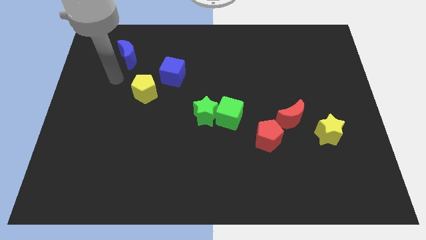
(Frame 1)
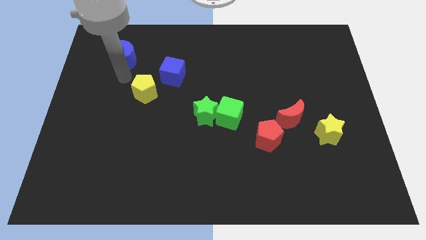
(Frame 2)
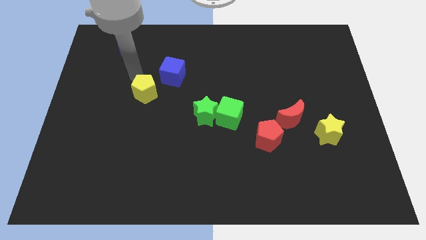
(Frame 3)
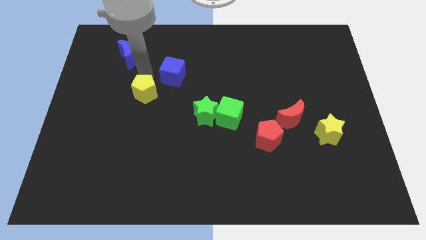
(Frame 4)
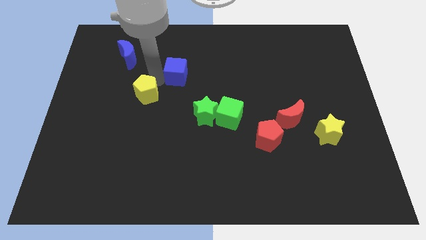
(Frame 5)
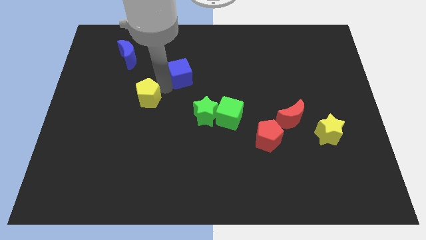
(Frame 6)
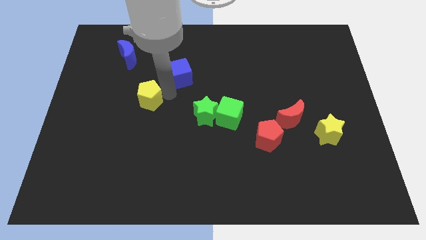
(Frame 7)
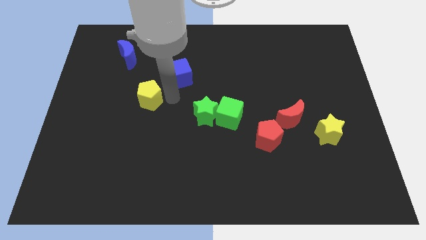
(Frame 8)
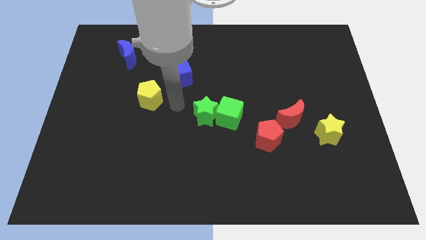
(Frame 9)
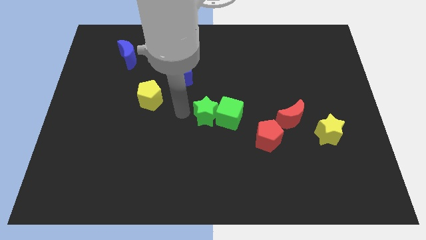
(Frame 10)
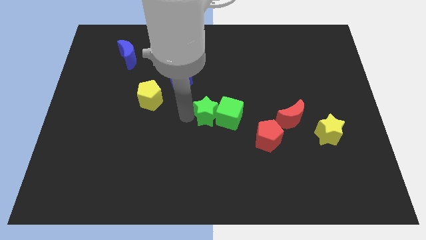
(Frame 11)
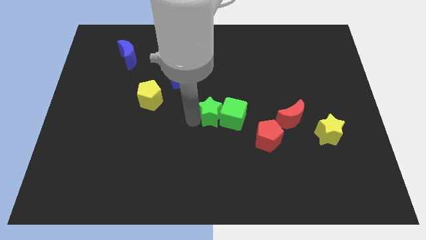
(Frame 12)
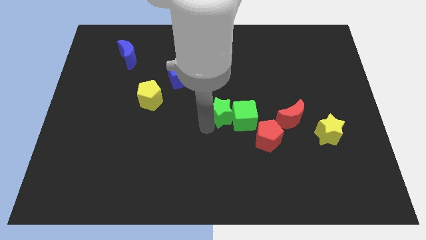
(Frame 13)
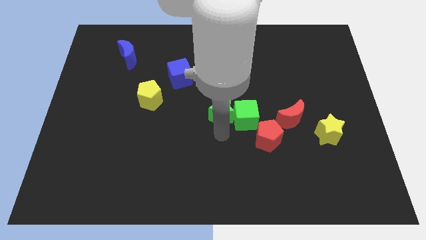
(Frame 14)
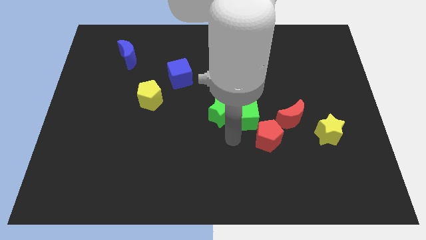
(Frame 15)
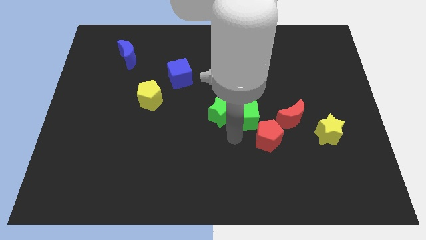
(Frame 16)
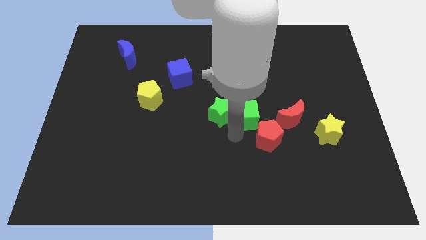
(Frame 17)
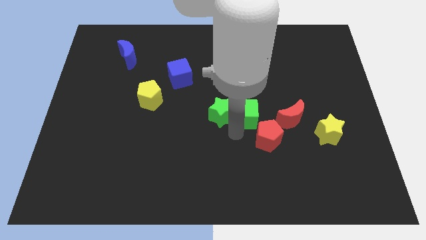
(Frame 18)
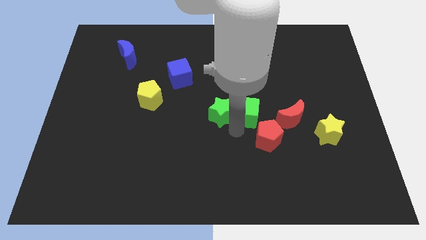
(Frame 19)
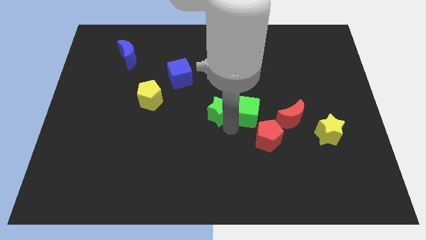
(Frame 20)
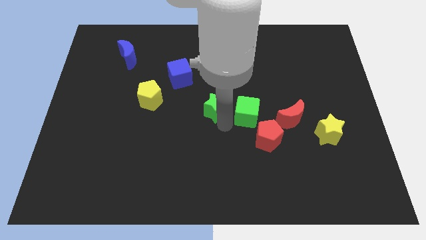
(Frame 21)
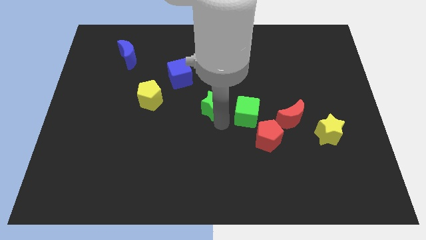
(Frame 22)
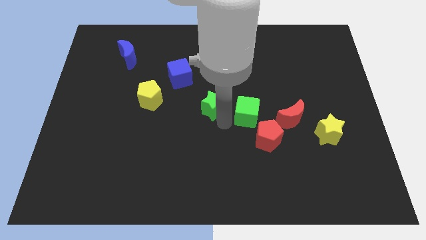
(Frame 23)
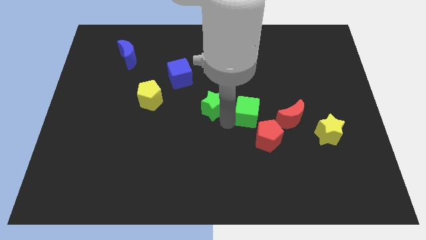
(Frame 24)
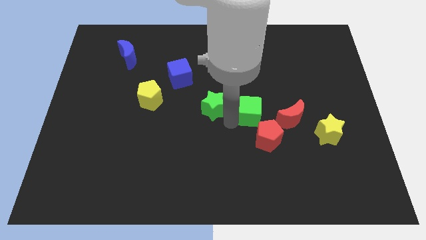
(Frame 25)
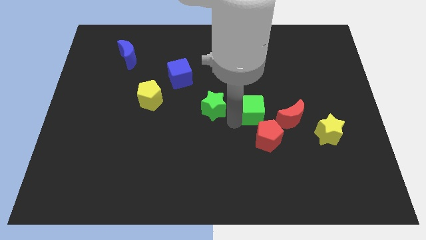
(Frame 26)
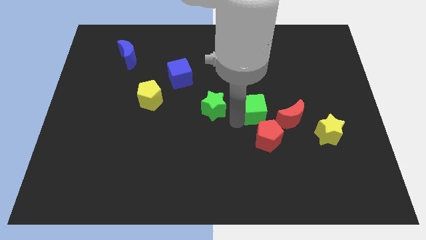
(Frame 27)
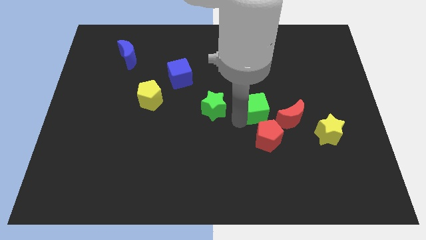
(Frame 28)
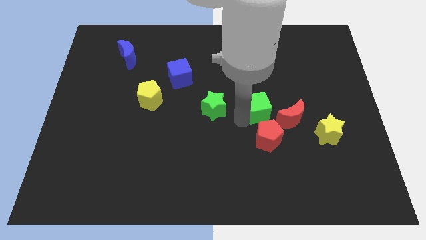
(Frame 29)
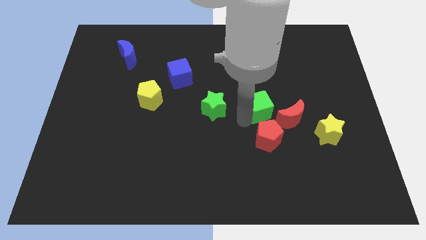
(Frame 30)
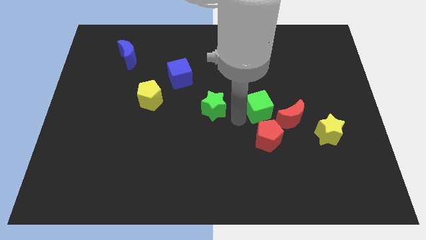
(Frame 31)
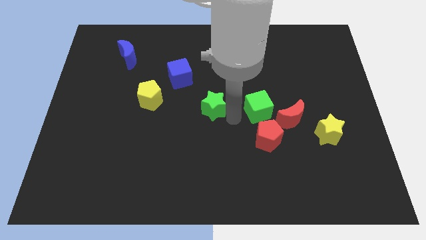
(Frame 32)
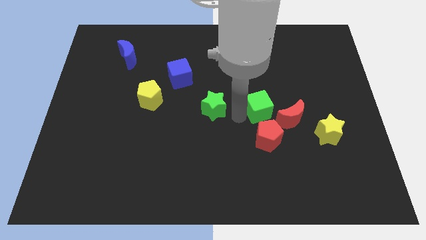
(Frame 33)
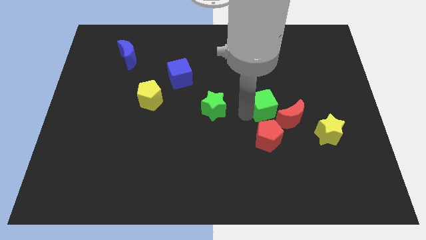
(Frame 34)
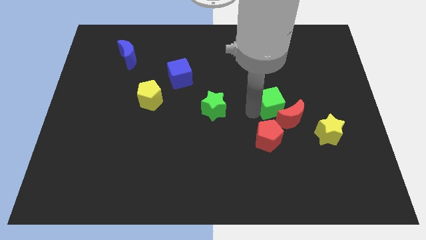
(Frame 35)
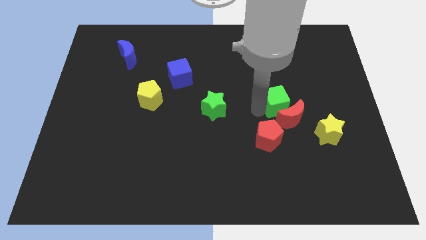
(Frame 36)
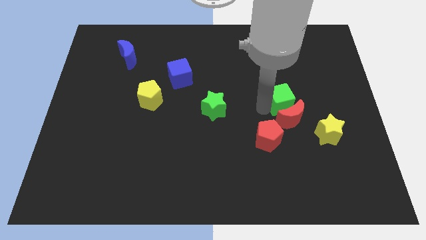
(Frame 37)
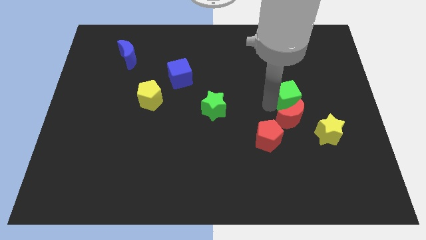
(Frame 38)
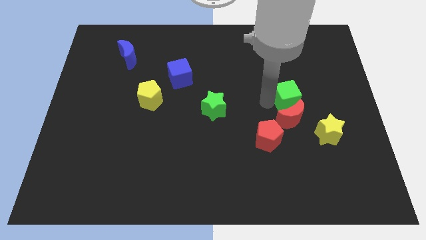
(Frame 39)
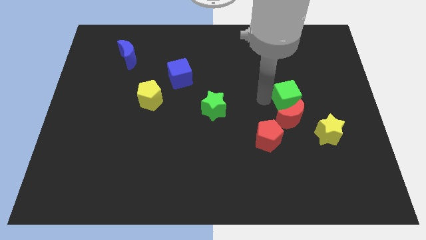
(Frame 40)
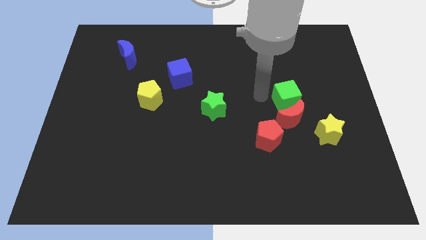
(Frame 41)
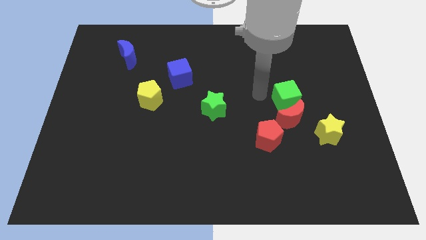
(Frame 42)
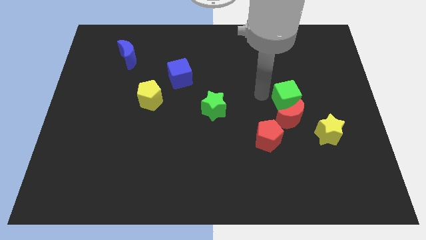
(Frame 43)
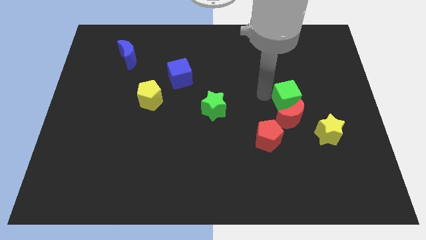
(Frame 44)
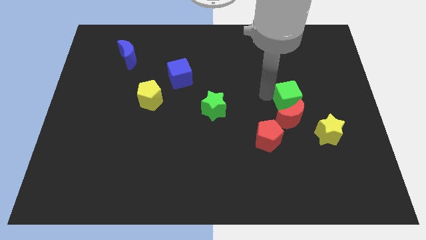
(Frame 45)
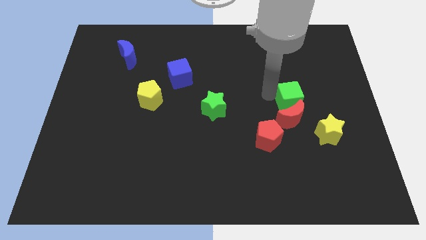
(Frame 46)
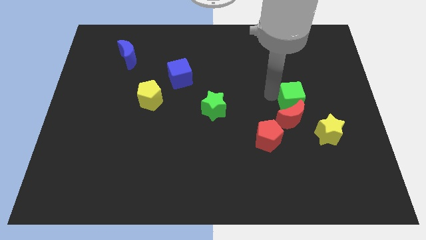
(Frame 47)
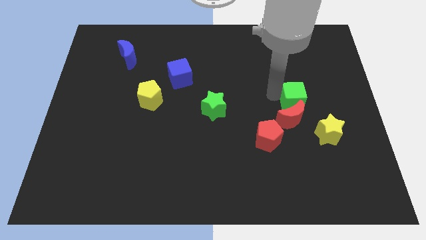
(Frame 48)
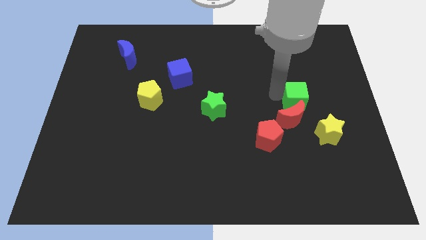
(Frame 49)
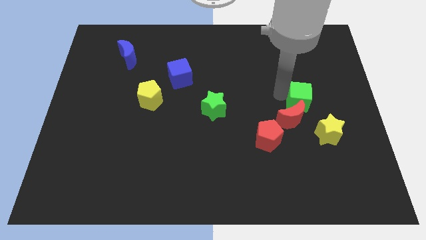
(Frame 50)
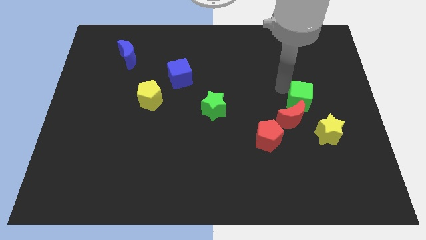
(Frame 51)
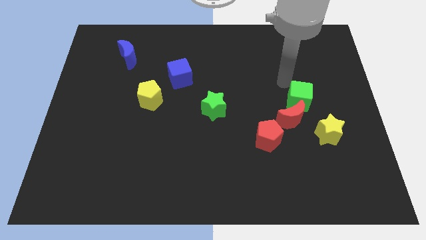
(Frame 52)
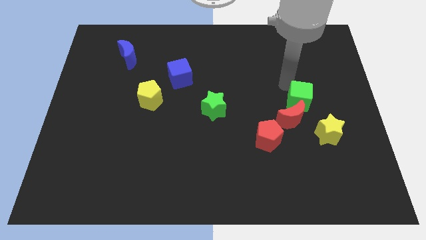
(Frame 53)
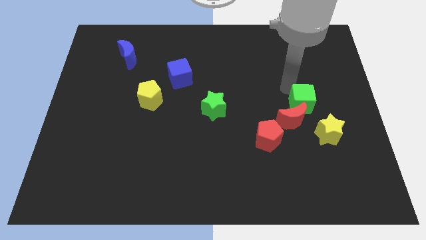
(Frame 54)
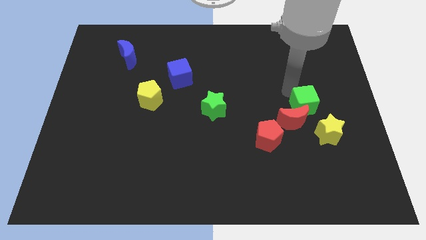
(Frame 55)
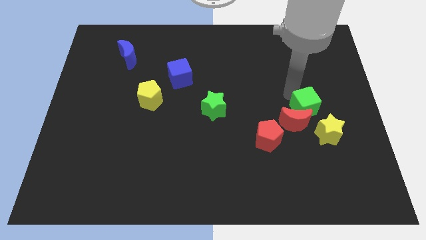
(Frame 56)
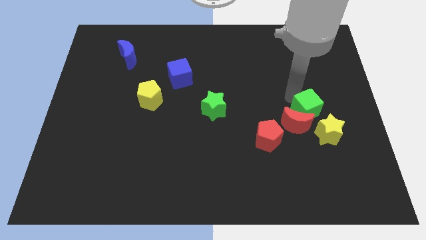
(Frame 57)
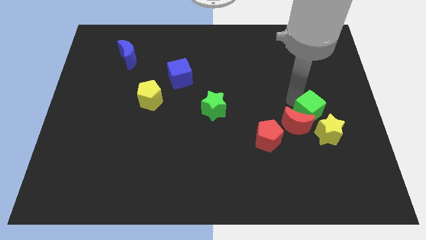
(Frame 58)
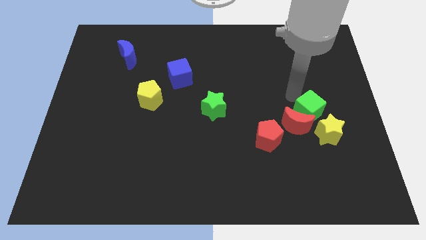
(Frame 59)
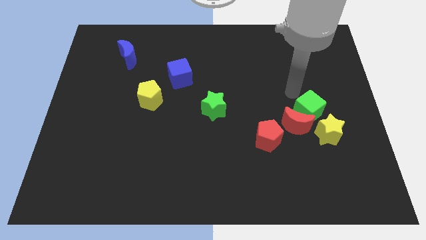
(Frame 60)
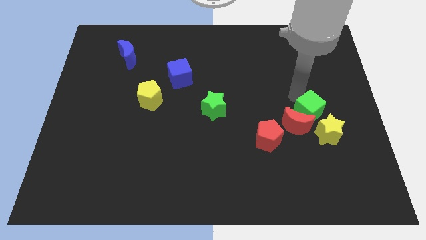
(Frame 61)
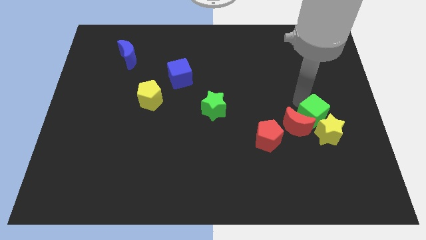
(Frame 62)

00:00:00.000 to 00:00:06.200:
move the green cube next to the yellow star

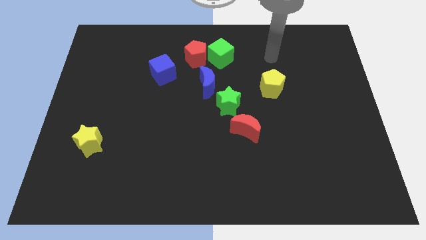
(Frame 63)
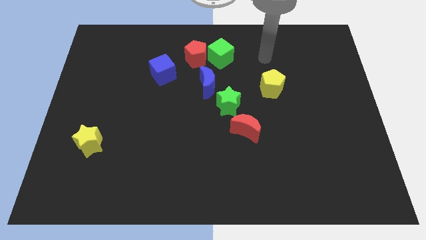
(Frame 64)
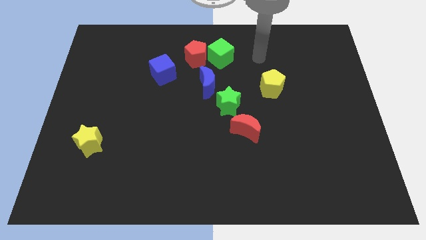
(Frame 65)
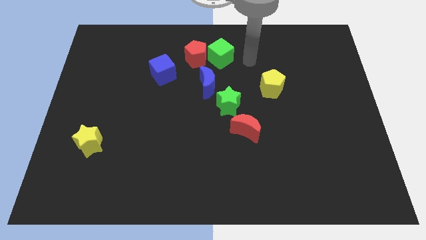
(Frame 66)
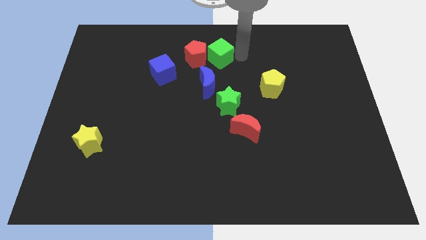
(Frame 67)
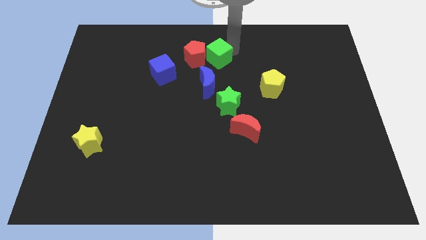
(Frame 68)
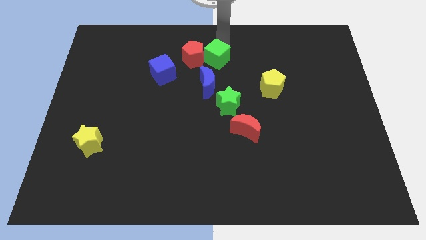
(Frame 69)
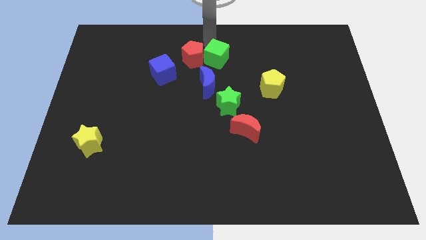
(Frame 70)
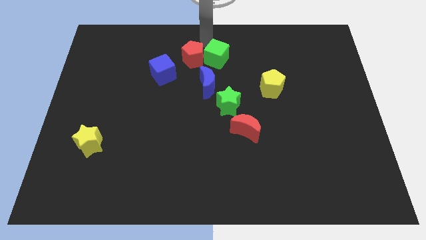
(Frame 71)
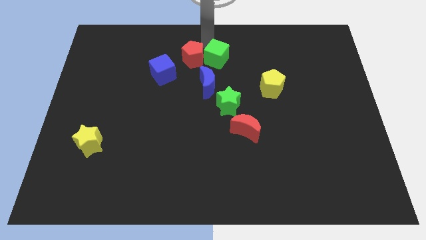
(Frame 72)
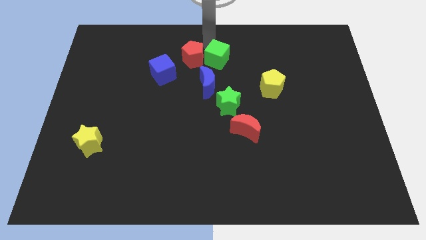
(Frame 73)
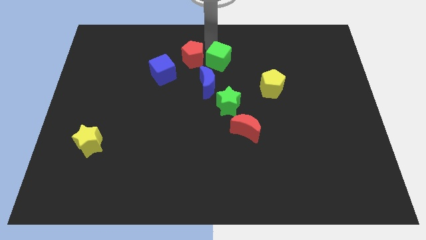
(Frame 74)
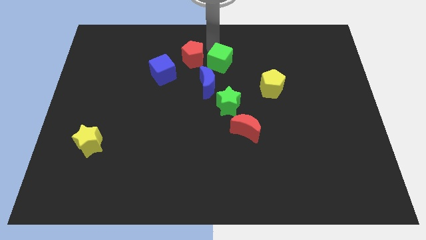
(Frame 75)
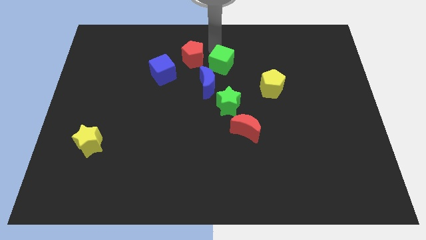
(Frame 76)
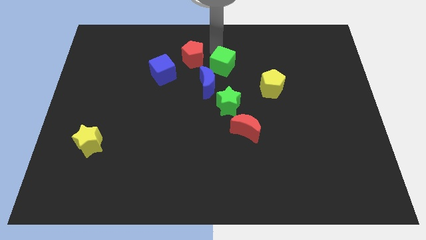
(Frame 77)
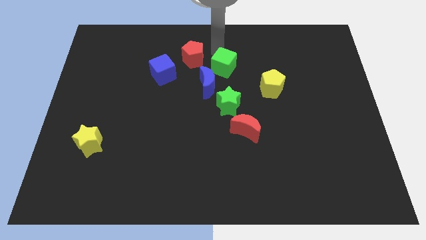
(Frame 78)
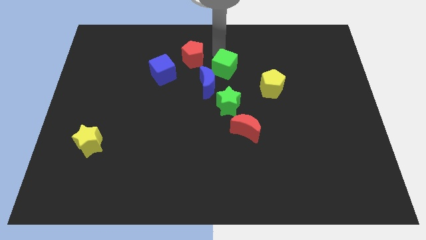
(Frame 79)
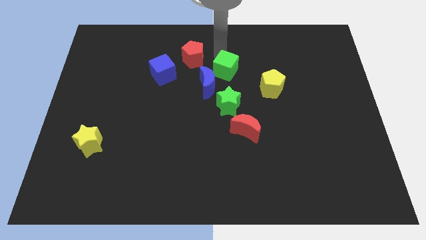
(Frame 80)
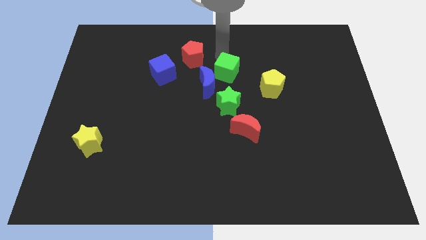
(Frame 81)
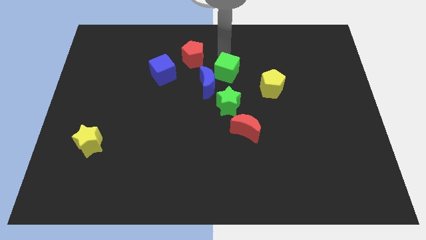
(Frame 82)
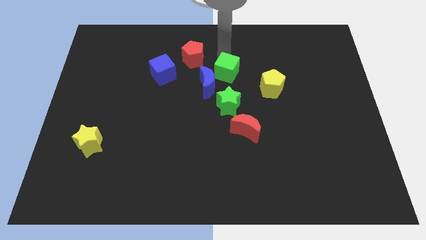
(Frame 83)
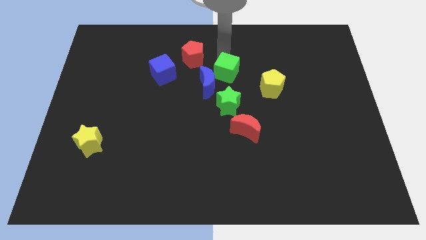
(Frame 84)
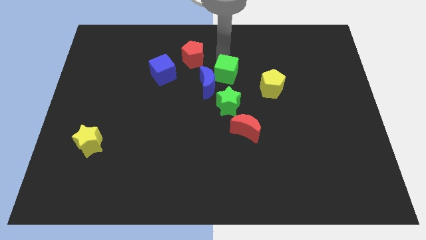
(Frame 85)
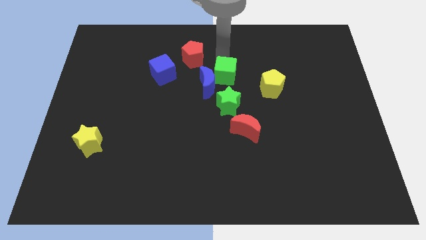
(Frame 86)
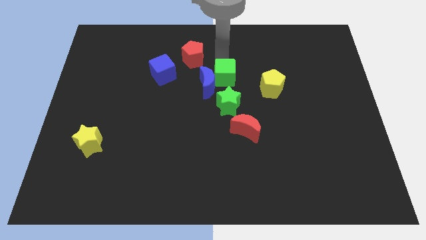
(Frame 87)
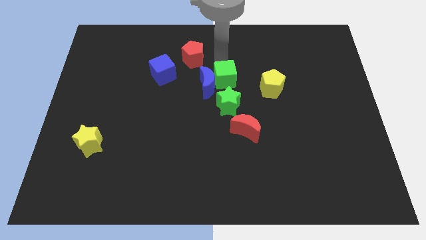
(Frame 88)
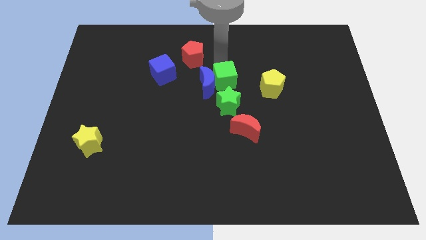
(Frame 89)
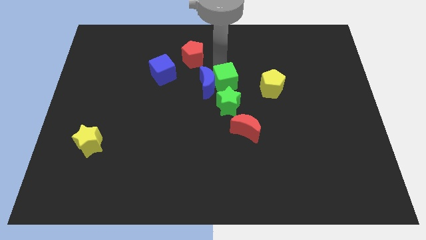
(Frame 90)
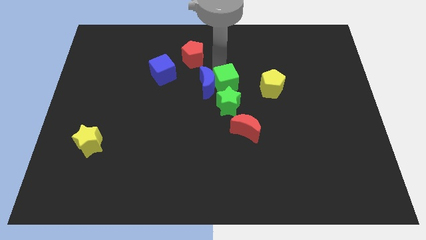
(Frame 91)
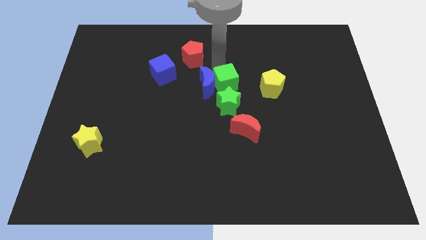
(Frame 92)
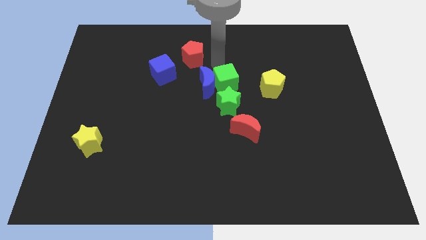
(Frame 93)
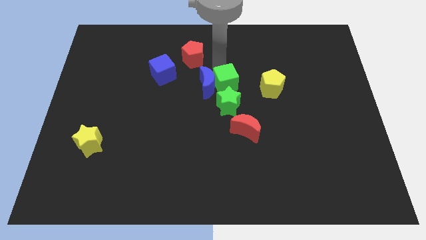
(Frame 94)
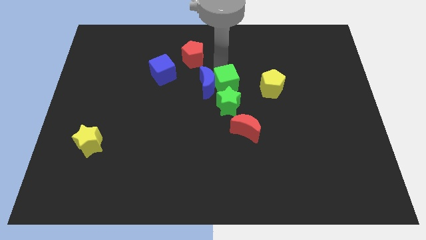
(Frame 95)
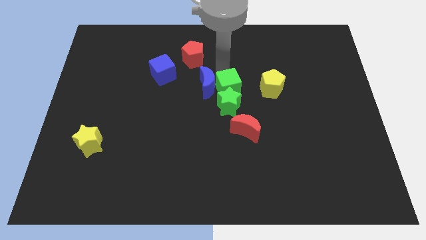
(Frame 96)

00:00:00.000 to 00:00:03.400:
push the green cube close to the green star
